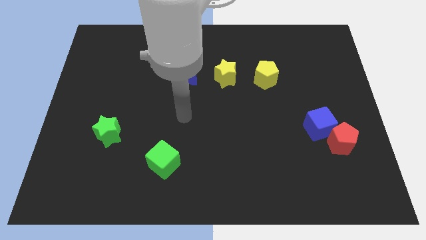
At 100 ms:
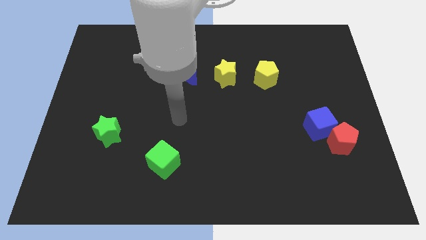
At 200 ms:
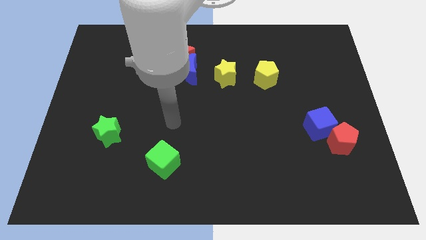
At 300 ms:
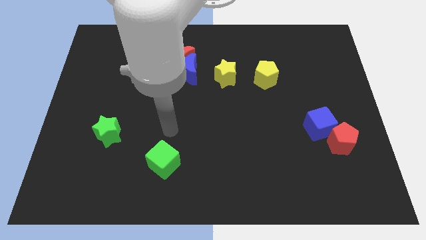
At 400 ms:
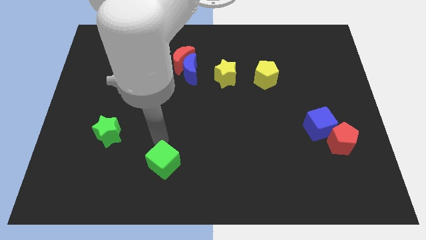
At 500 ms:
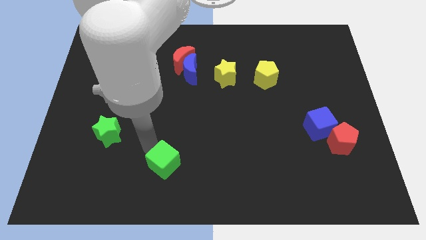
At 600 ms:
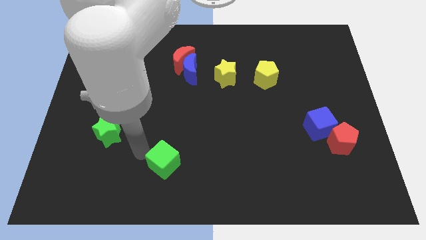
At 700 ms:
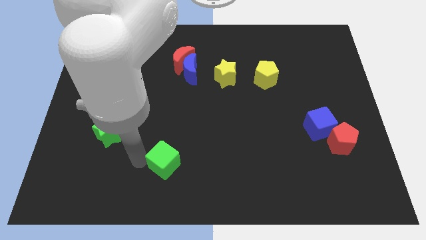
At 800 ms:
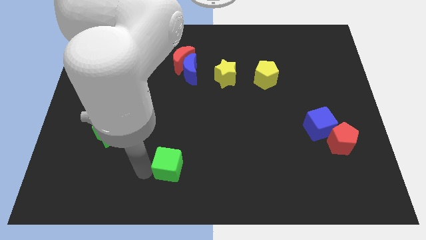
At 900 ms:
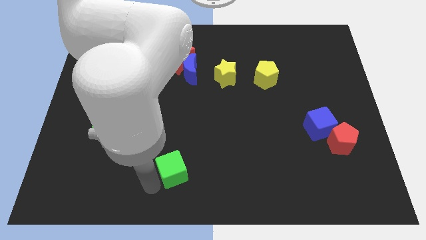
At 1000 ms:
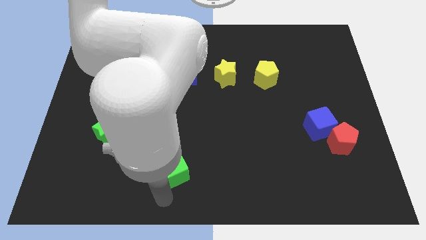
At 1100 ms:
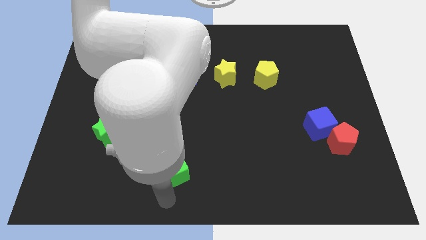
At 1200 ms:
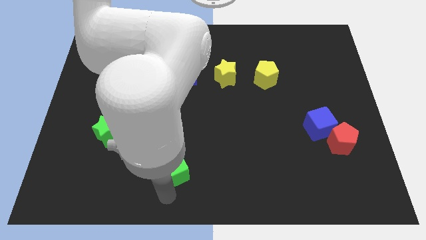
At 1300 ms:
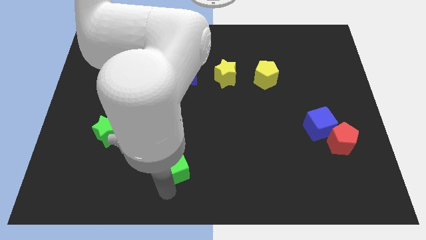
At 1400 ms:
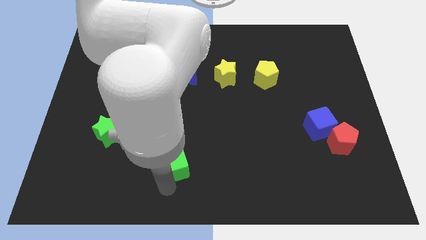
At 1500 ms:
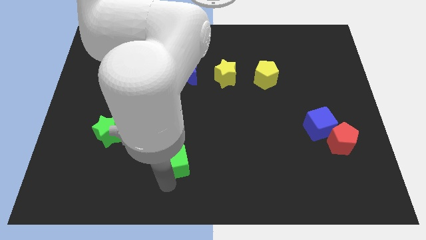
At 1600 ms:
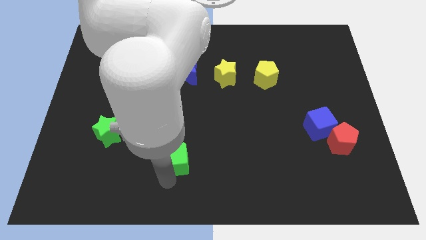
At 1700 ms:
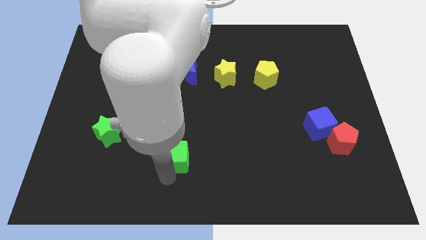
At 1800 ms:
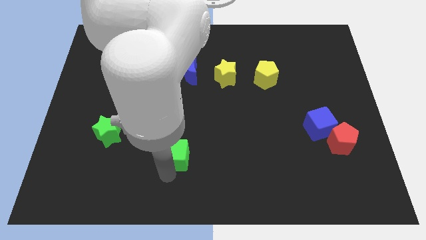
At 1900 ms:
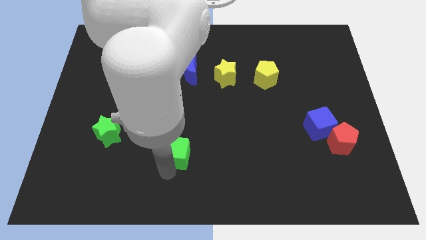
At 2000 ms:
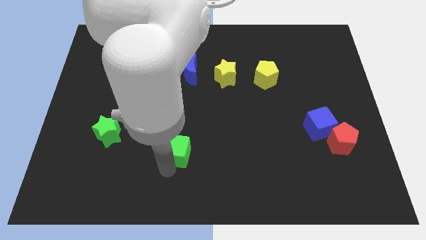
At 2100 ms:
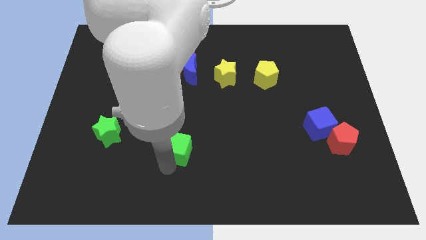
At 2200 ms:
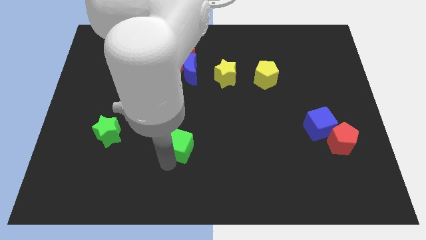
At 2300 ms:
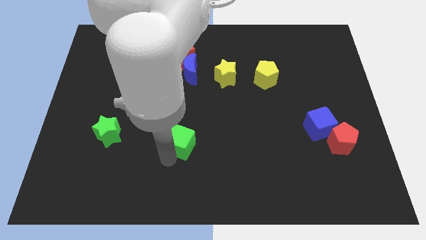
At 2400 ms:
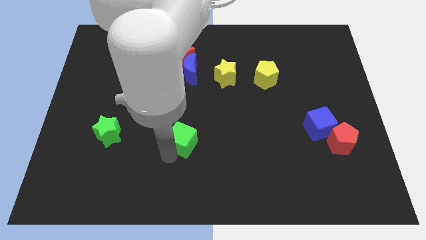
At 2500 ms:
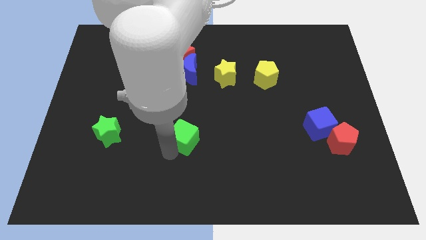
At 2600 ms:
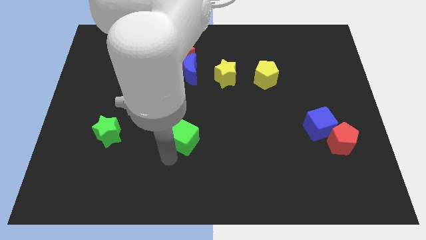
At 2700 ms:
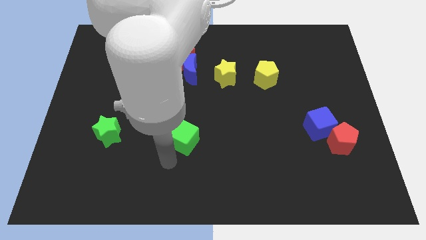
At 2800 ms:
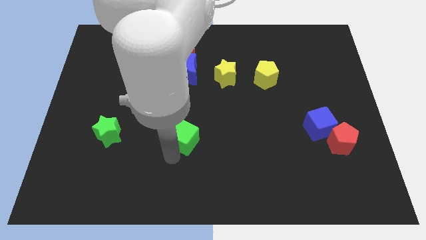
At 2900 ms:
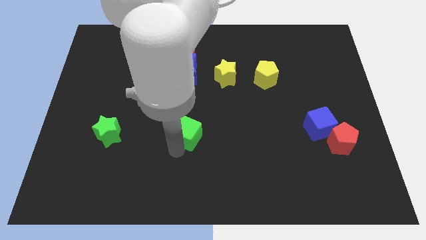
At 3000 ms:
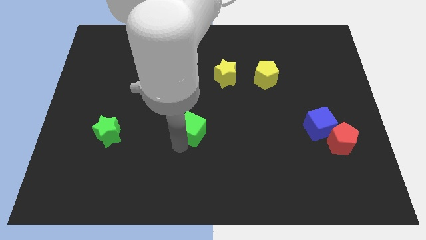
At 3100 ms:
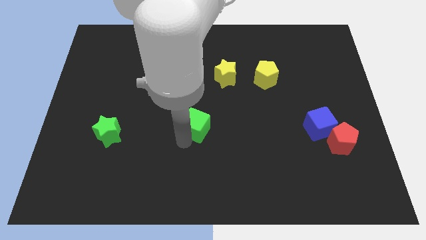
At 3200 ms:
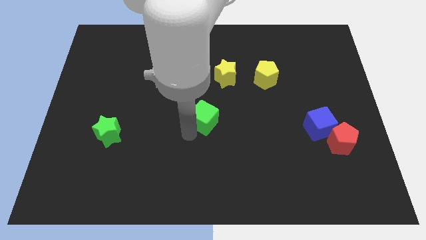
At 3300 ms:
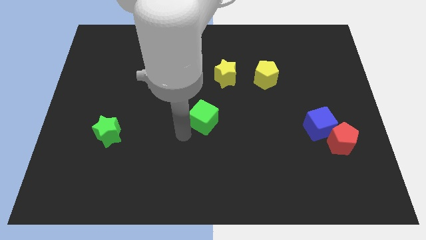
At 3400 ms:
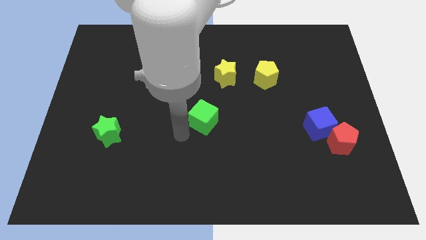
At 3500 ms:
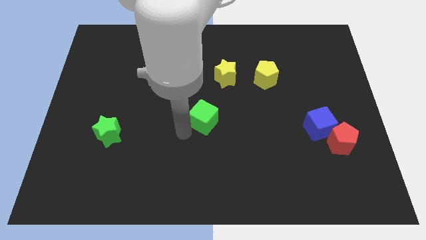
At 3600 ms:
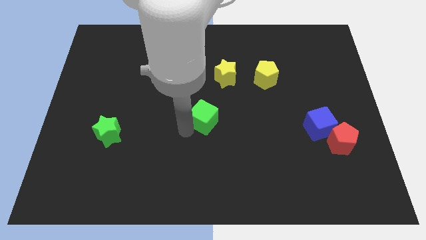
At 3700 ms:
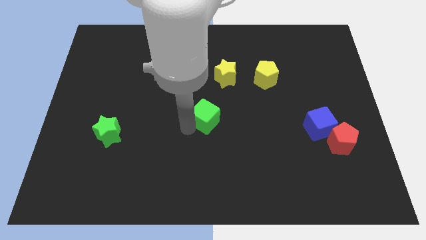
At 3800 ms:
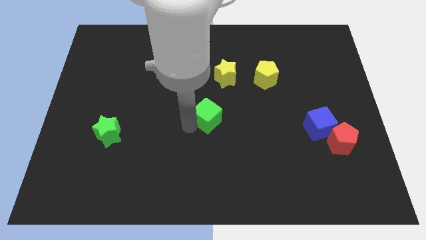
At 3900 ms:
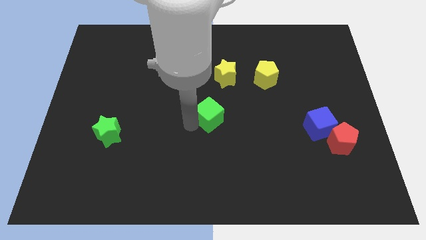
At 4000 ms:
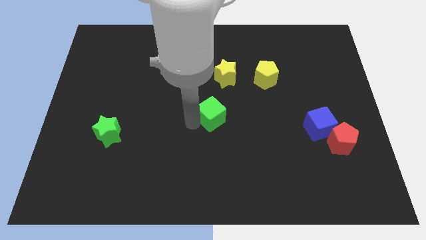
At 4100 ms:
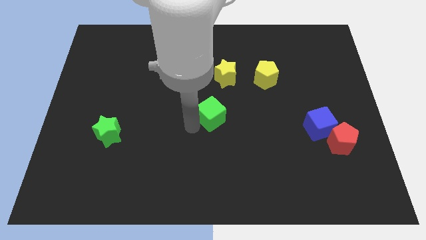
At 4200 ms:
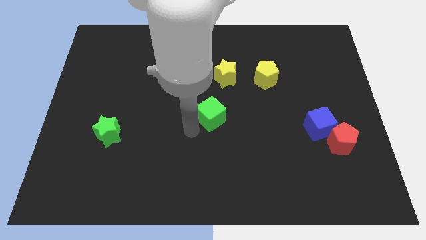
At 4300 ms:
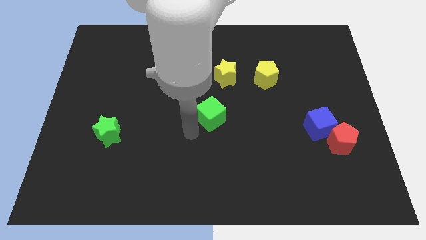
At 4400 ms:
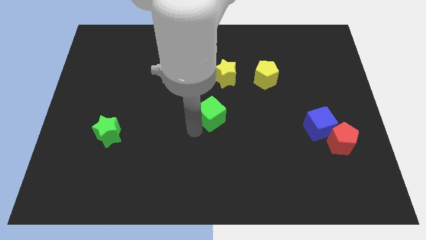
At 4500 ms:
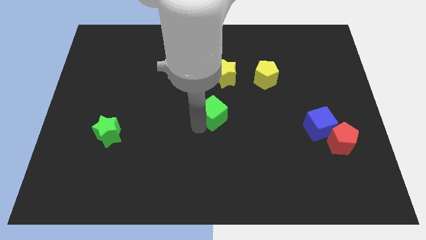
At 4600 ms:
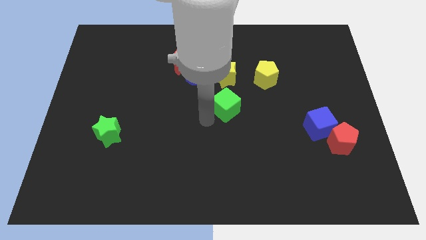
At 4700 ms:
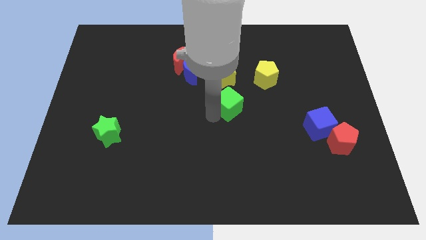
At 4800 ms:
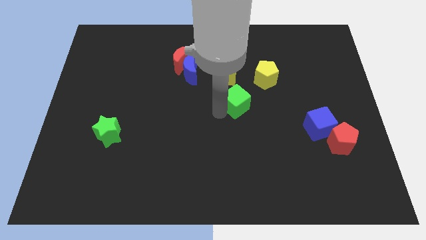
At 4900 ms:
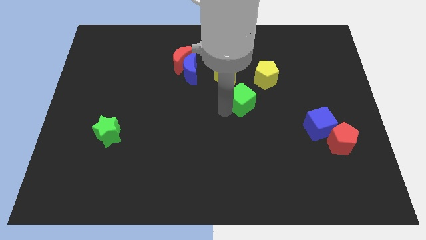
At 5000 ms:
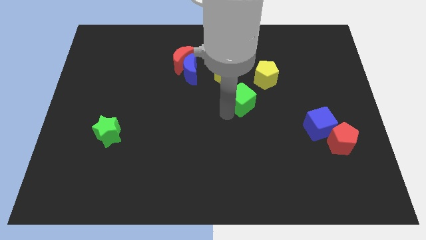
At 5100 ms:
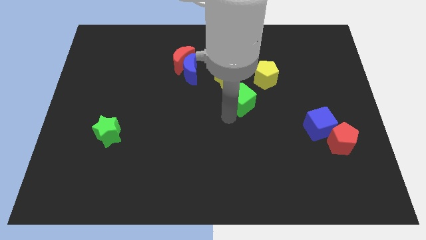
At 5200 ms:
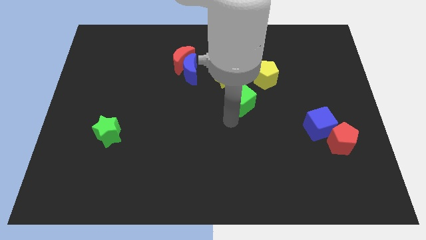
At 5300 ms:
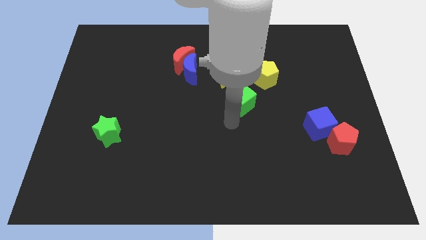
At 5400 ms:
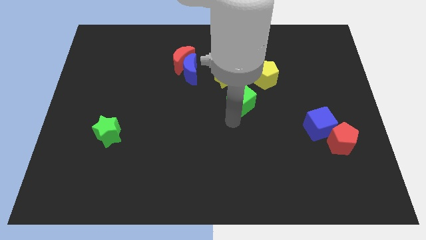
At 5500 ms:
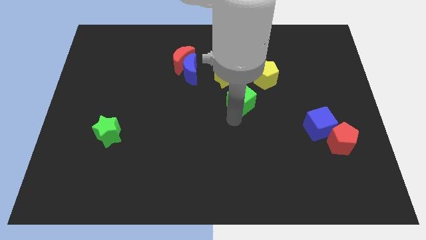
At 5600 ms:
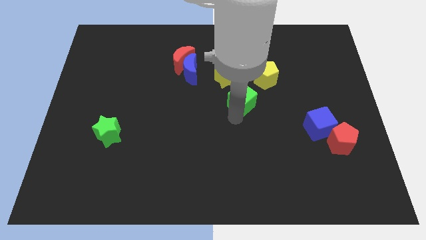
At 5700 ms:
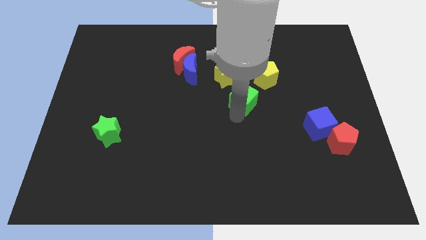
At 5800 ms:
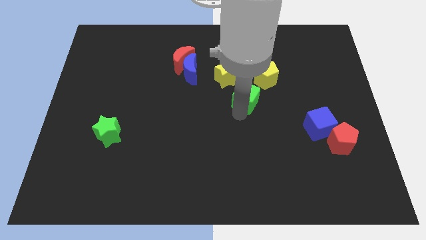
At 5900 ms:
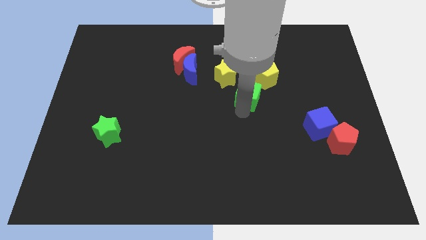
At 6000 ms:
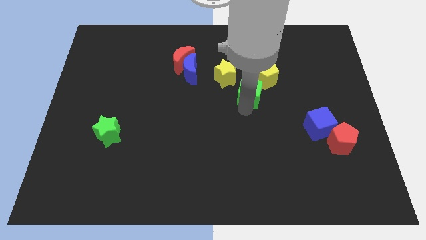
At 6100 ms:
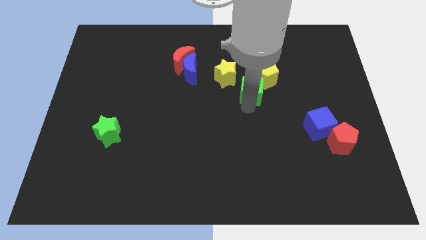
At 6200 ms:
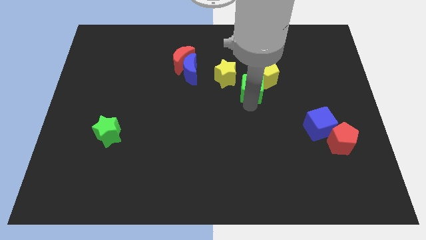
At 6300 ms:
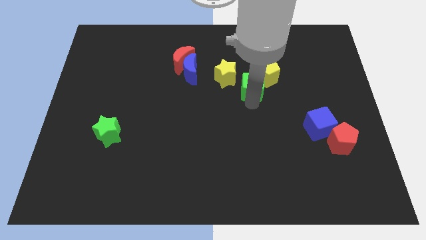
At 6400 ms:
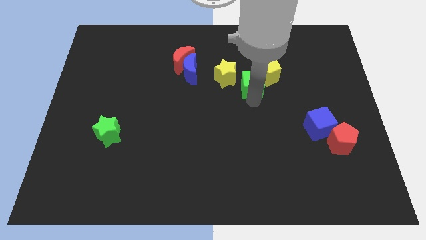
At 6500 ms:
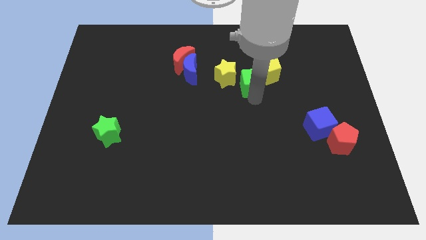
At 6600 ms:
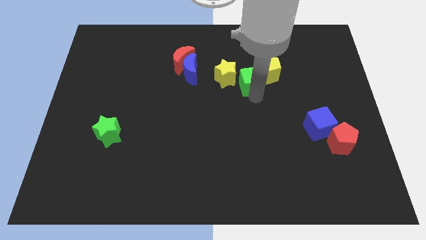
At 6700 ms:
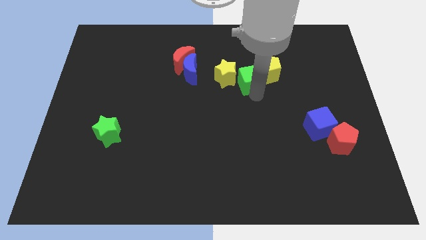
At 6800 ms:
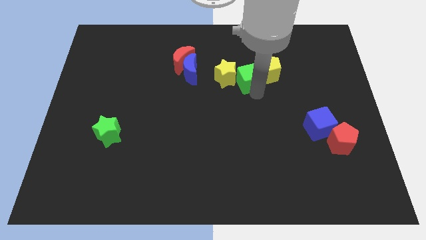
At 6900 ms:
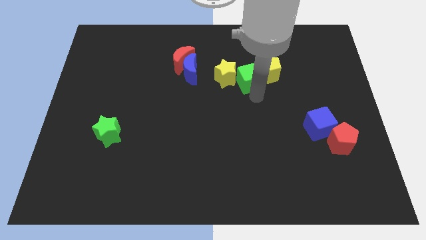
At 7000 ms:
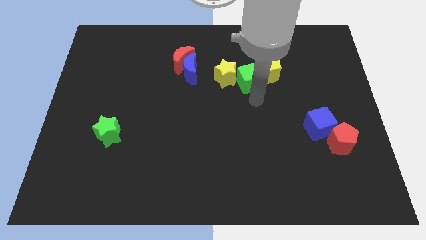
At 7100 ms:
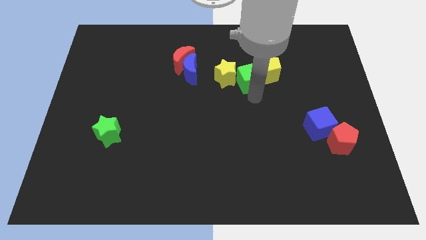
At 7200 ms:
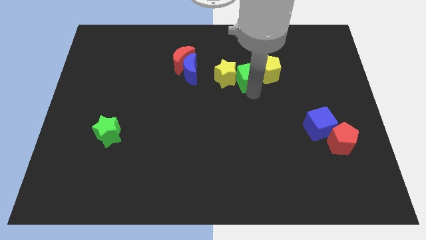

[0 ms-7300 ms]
slide the green cube to the top right of the yellow star
